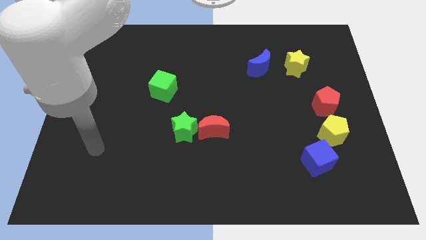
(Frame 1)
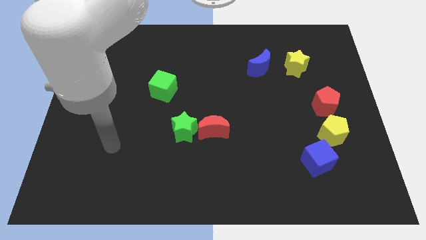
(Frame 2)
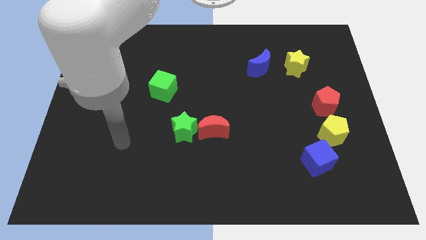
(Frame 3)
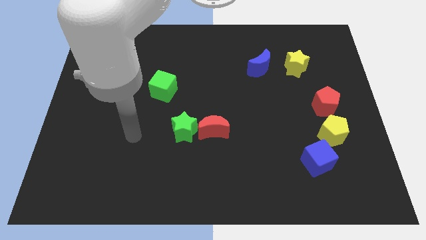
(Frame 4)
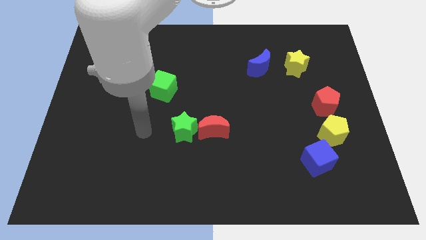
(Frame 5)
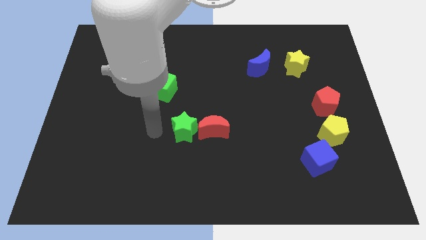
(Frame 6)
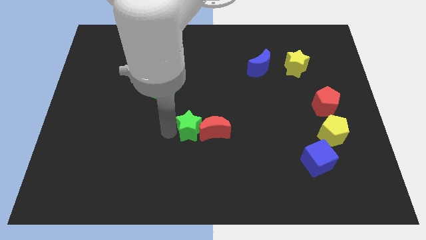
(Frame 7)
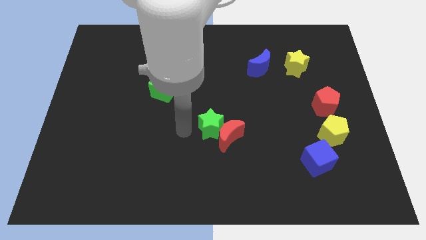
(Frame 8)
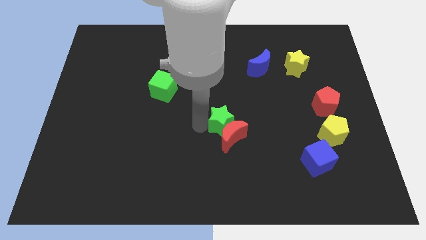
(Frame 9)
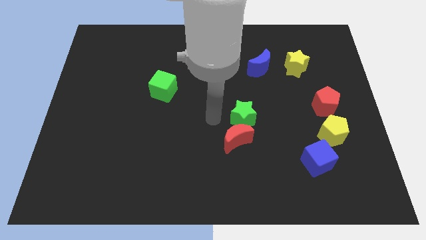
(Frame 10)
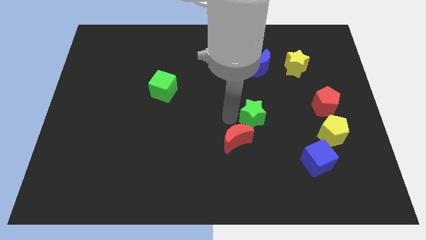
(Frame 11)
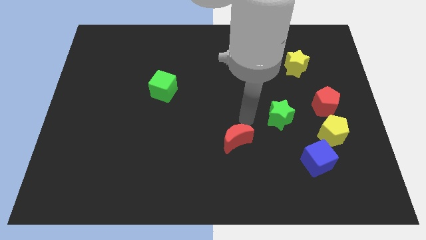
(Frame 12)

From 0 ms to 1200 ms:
separate the red moon from the green star

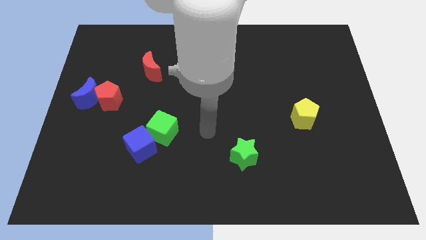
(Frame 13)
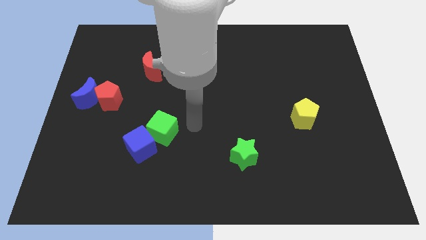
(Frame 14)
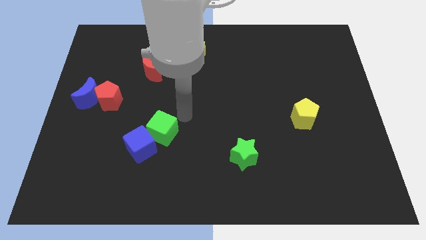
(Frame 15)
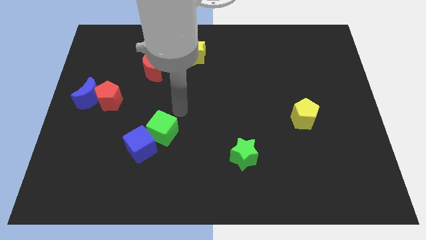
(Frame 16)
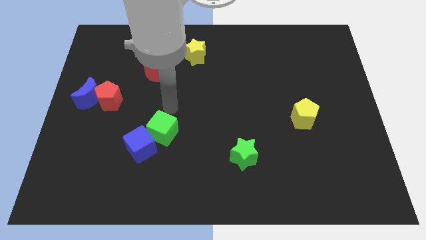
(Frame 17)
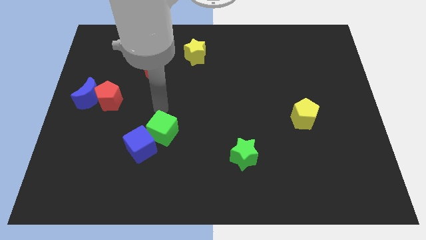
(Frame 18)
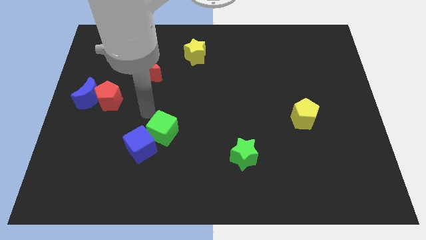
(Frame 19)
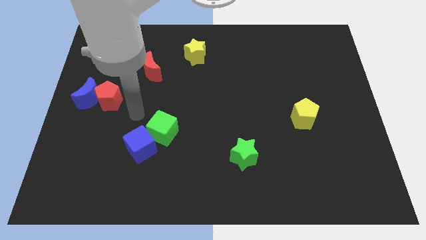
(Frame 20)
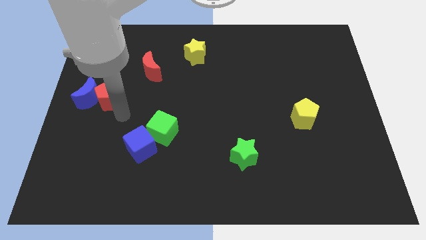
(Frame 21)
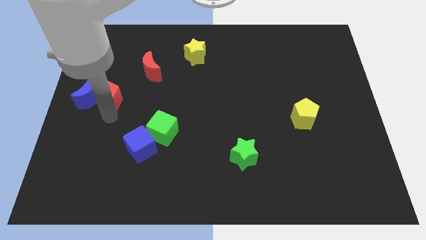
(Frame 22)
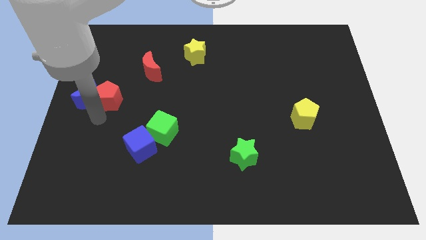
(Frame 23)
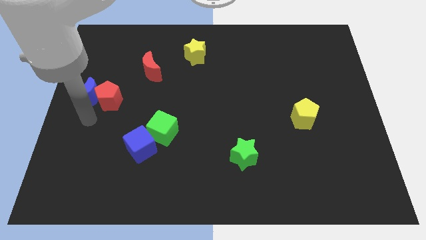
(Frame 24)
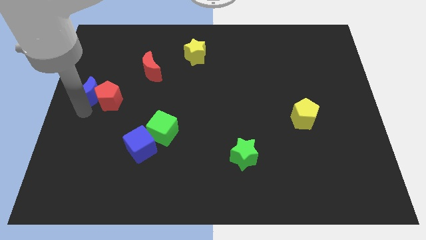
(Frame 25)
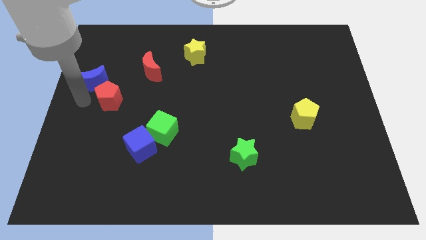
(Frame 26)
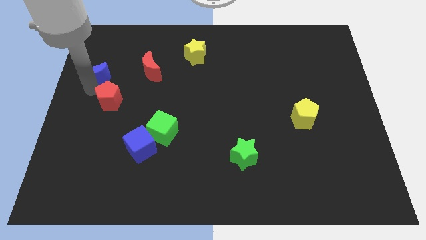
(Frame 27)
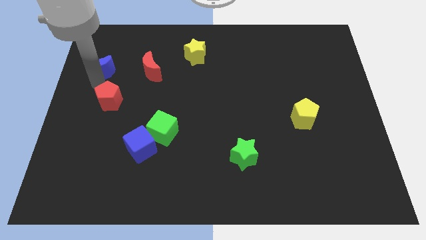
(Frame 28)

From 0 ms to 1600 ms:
separate the red pentagon from the blue moon

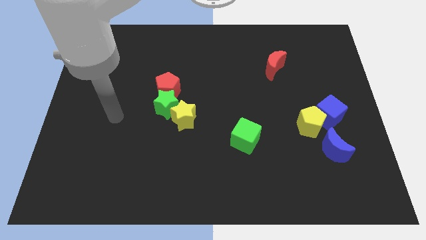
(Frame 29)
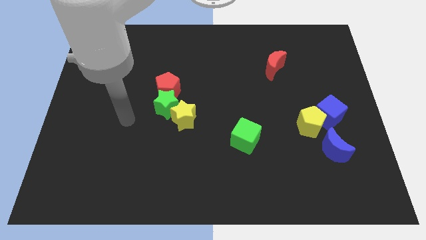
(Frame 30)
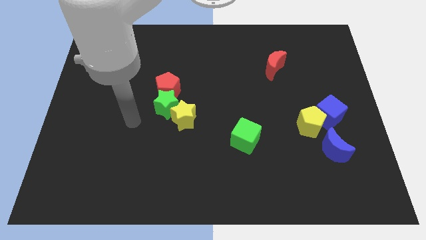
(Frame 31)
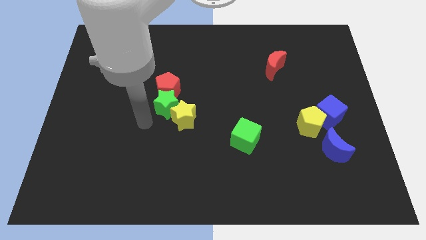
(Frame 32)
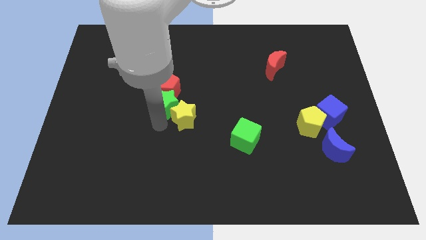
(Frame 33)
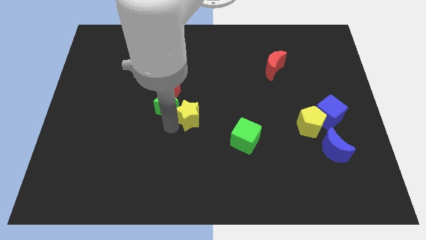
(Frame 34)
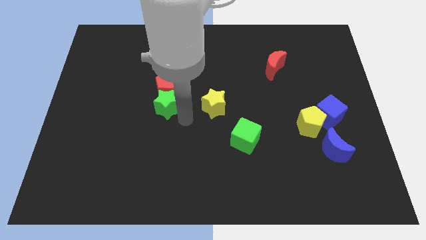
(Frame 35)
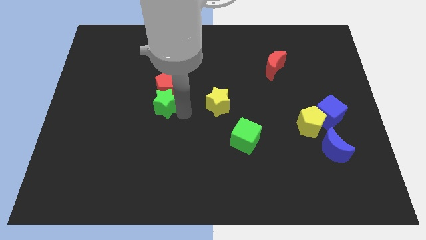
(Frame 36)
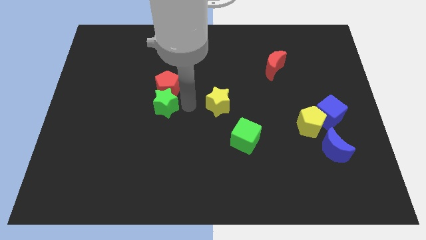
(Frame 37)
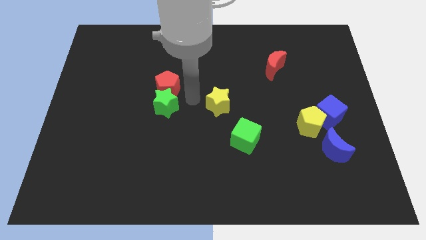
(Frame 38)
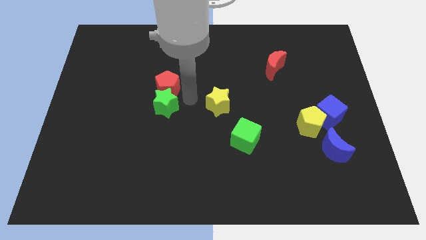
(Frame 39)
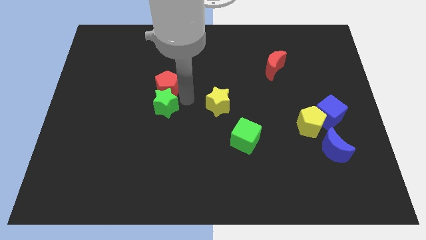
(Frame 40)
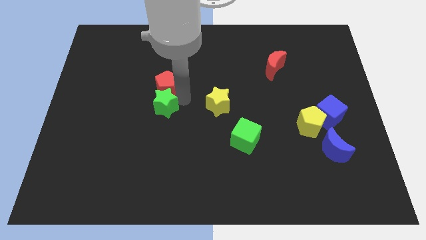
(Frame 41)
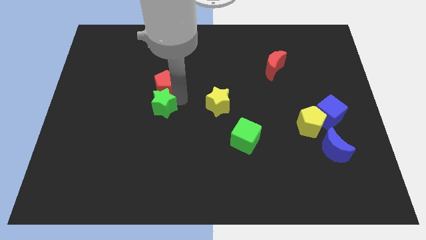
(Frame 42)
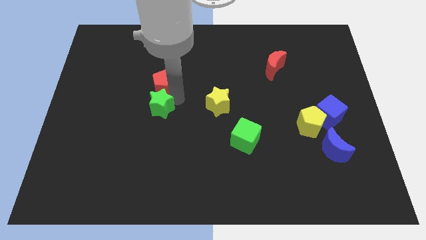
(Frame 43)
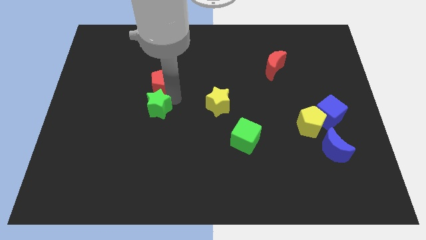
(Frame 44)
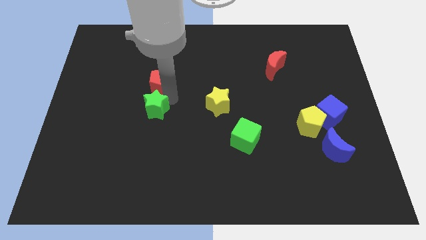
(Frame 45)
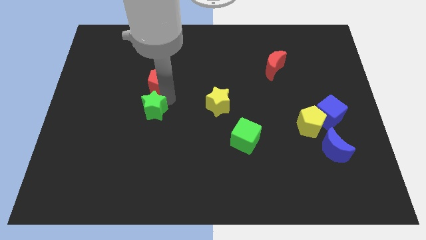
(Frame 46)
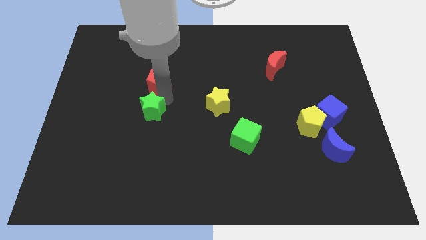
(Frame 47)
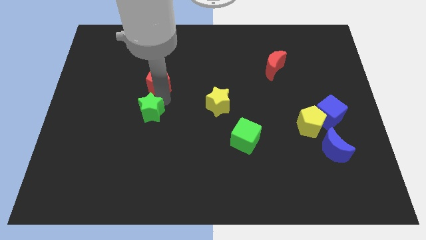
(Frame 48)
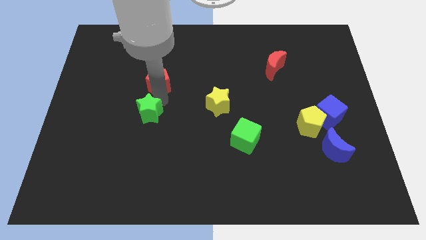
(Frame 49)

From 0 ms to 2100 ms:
pull the green star apart from the red pentagon and yellow star

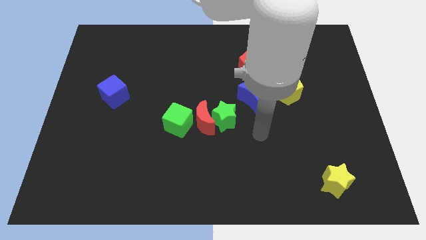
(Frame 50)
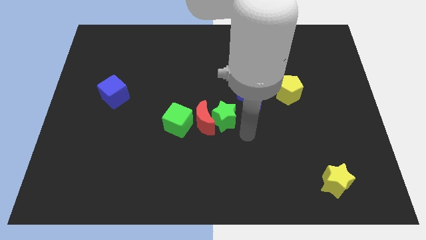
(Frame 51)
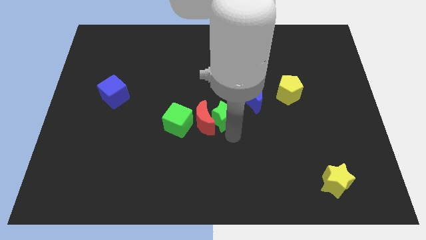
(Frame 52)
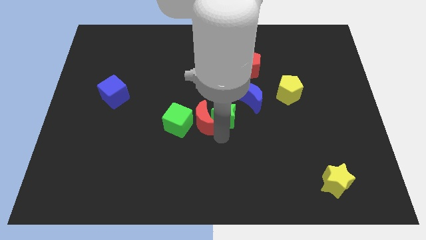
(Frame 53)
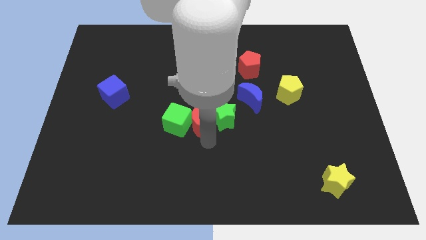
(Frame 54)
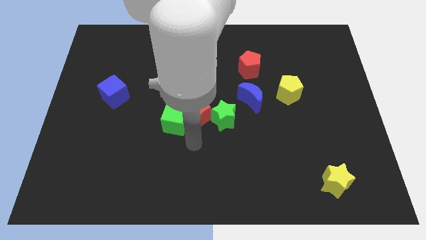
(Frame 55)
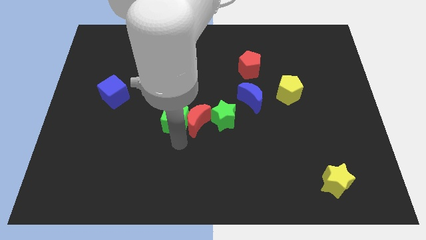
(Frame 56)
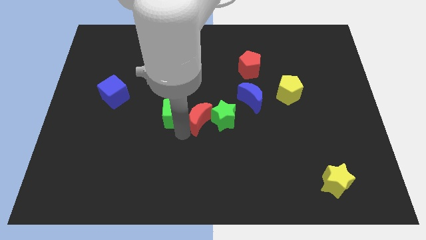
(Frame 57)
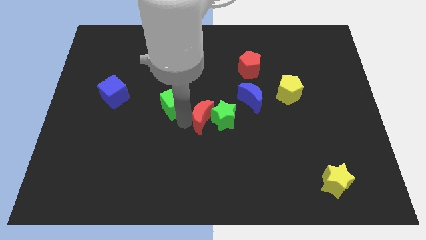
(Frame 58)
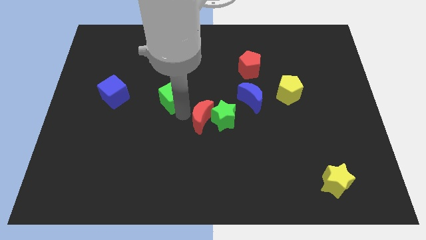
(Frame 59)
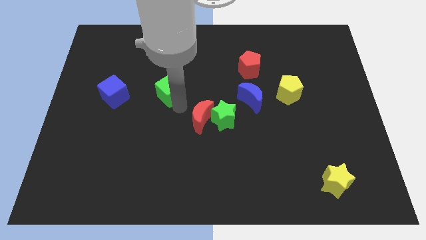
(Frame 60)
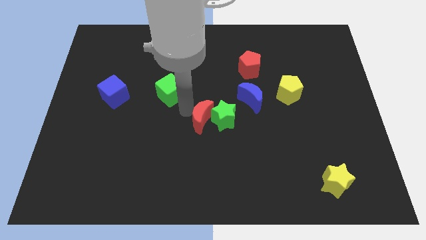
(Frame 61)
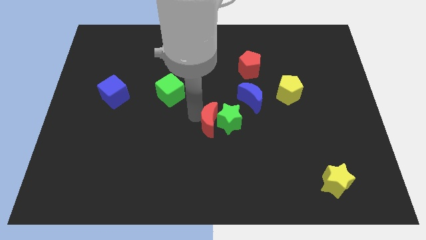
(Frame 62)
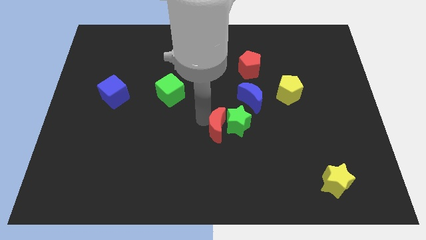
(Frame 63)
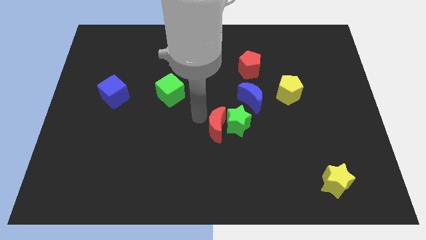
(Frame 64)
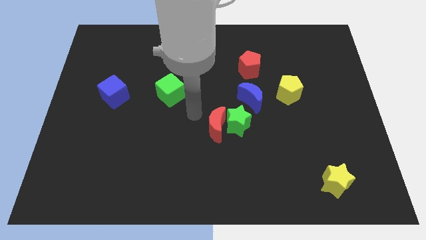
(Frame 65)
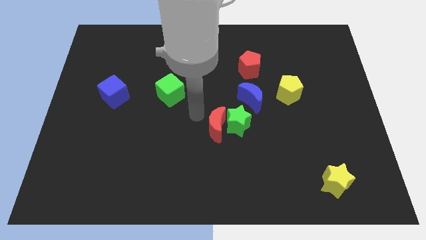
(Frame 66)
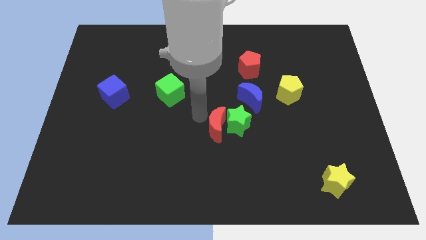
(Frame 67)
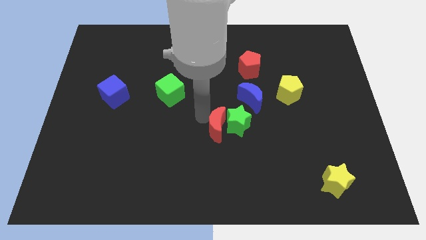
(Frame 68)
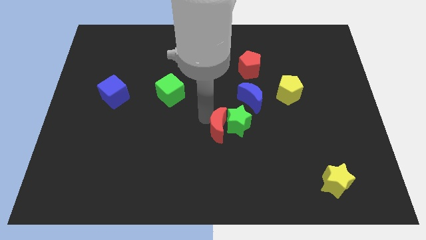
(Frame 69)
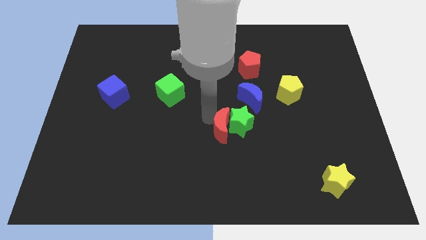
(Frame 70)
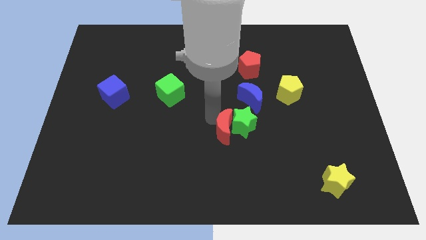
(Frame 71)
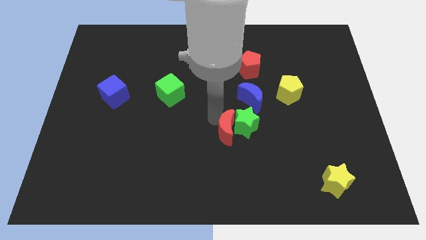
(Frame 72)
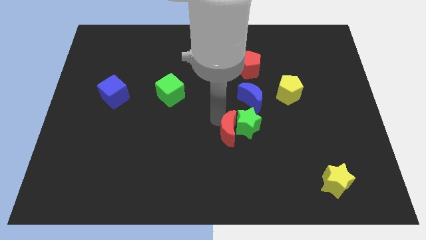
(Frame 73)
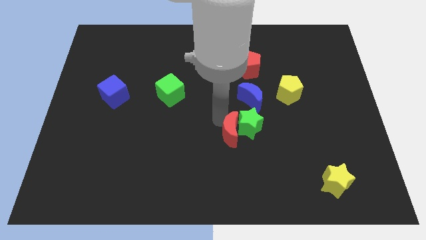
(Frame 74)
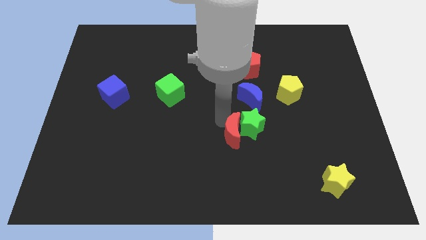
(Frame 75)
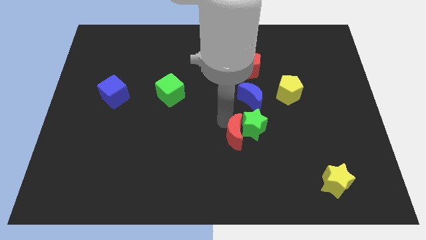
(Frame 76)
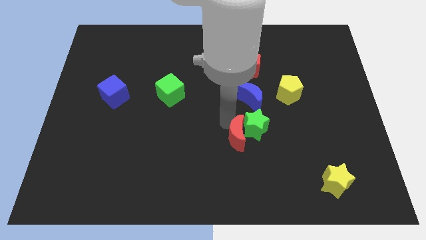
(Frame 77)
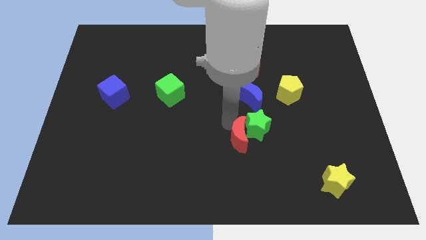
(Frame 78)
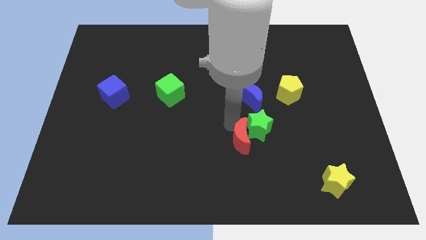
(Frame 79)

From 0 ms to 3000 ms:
separate the red moon from the green star and green cube

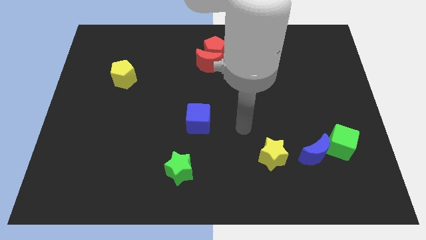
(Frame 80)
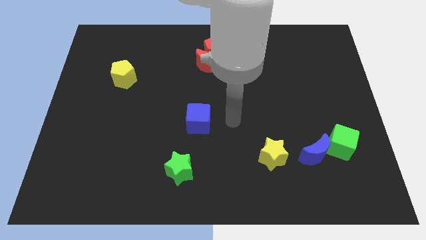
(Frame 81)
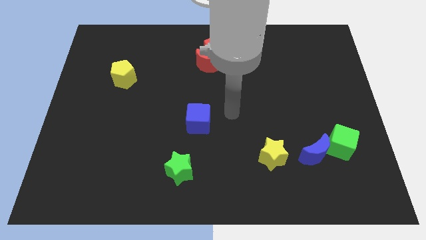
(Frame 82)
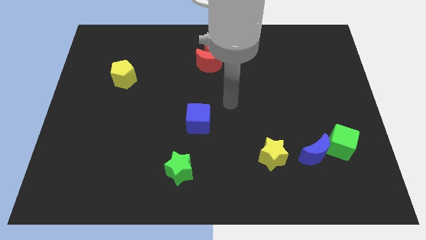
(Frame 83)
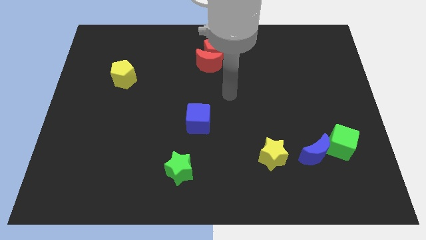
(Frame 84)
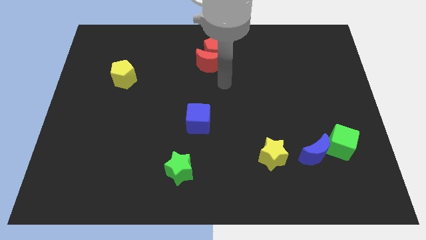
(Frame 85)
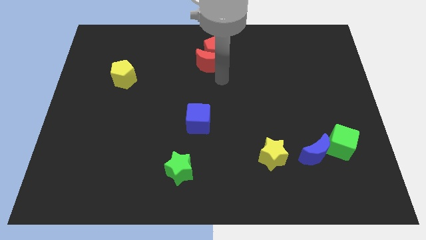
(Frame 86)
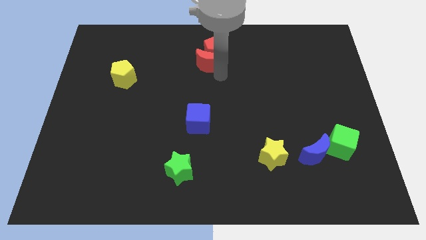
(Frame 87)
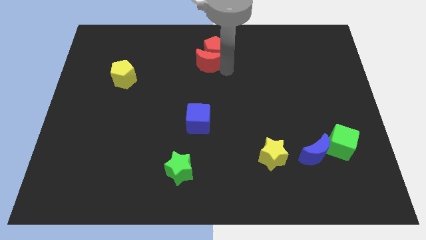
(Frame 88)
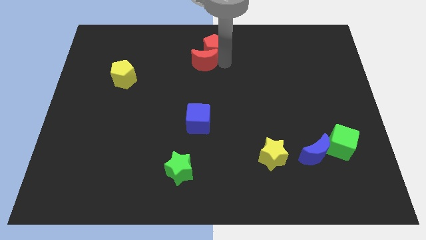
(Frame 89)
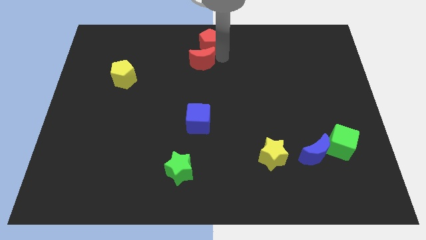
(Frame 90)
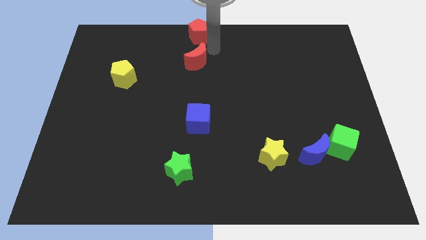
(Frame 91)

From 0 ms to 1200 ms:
separate the red moon from the red pentagon
